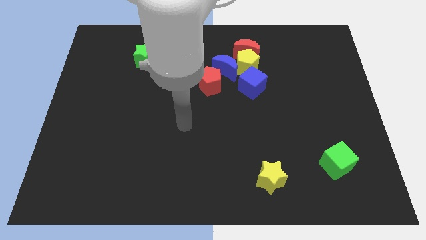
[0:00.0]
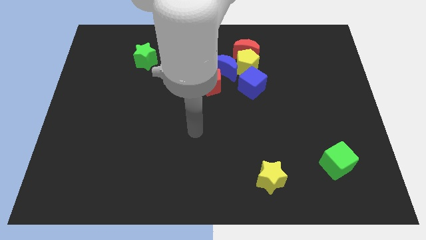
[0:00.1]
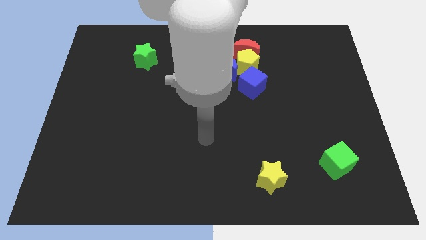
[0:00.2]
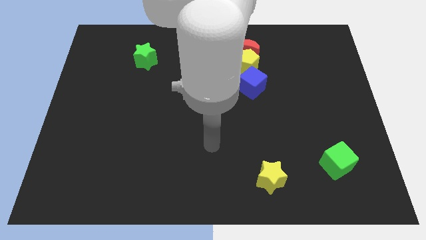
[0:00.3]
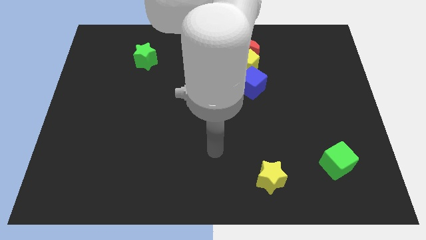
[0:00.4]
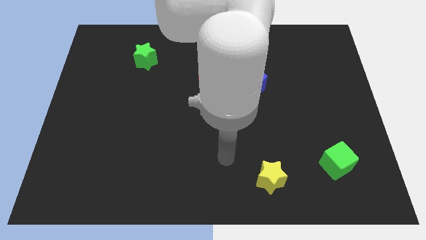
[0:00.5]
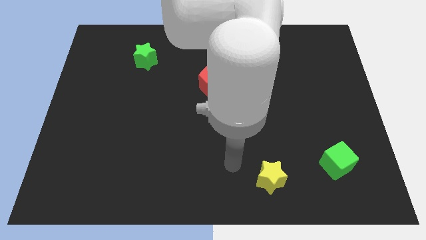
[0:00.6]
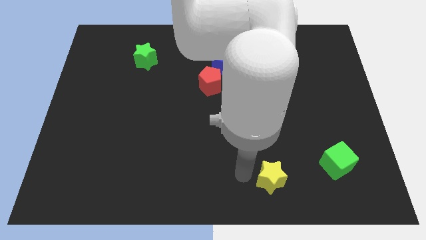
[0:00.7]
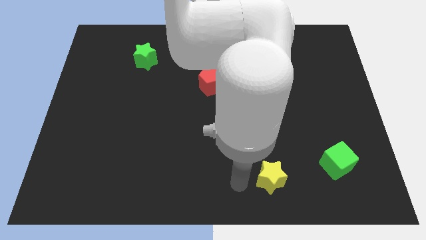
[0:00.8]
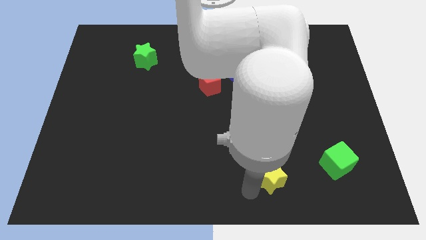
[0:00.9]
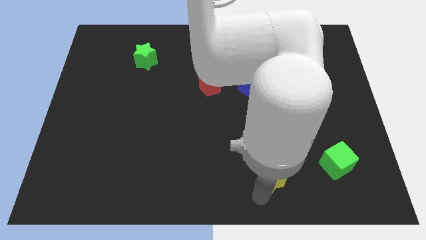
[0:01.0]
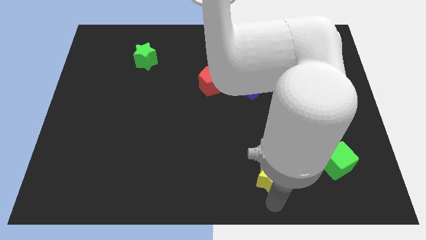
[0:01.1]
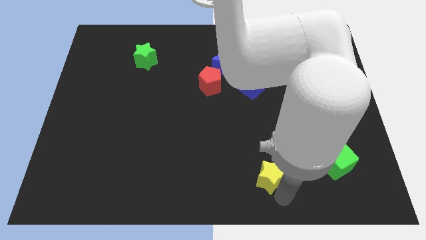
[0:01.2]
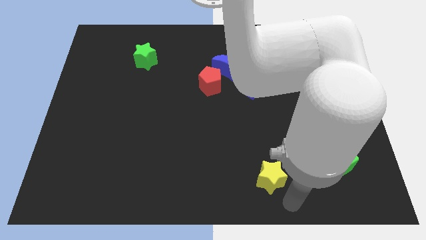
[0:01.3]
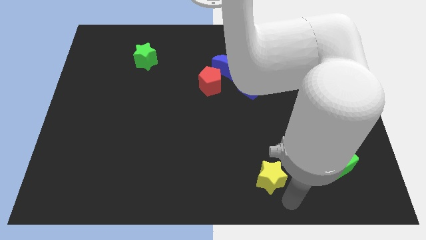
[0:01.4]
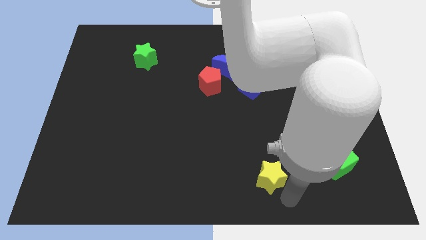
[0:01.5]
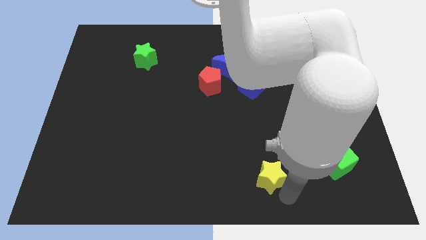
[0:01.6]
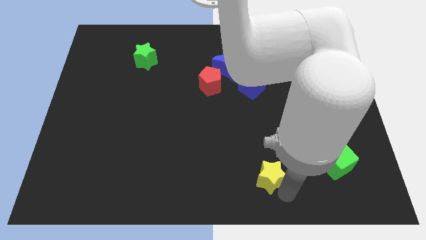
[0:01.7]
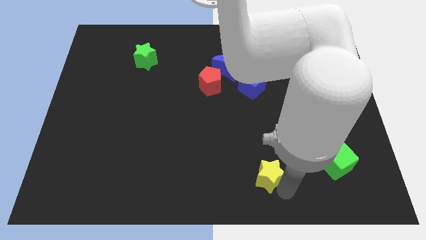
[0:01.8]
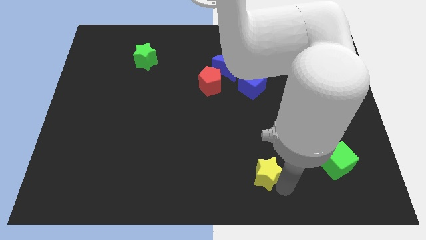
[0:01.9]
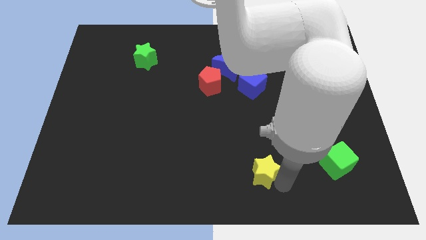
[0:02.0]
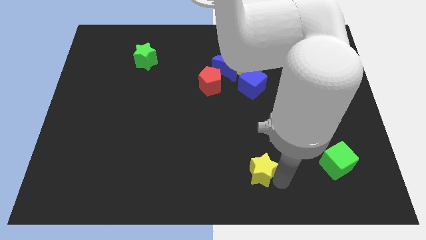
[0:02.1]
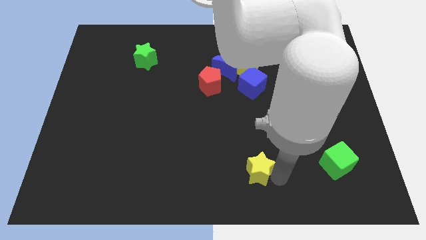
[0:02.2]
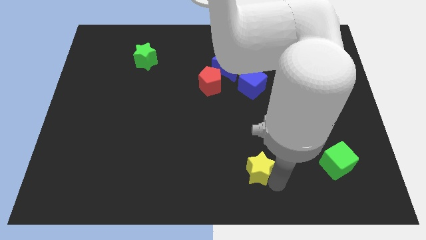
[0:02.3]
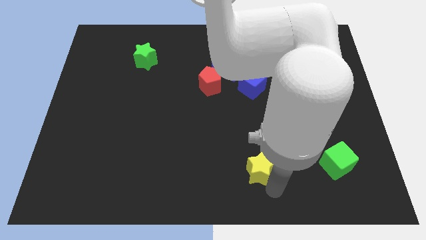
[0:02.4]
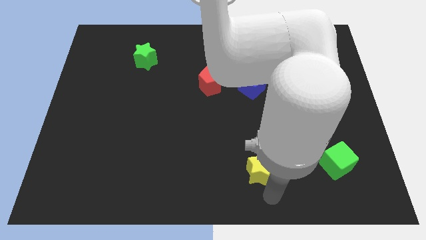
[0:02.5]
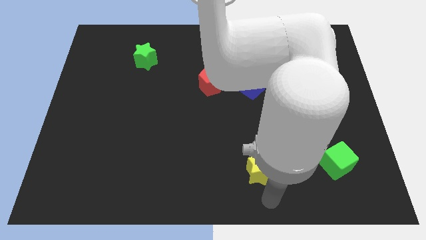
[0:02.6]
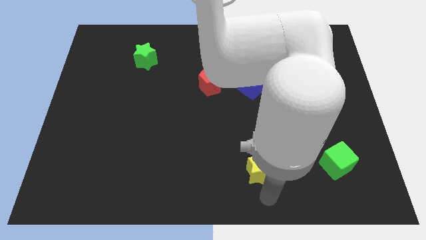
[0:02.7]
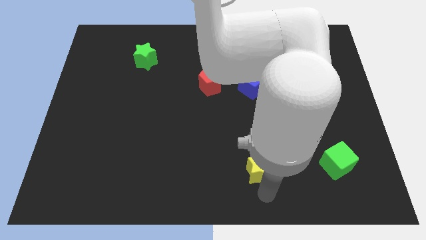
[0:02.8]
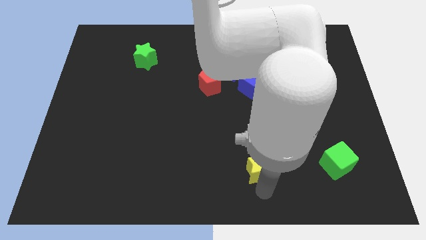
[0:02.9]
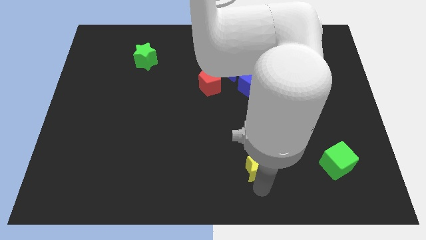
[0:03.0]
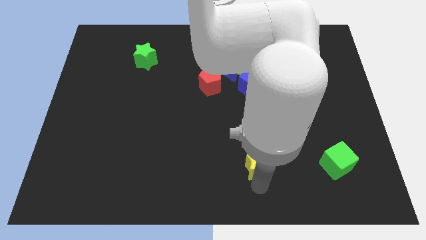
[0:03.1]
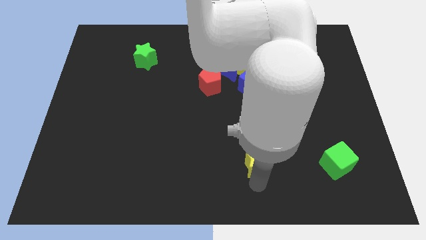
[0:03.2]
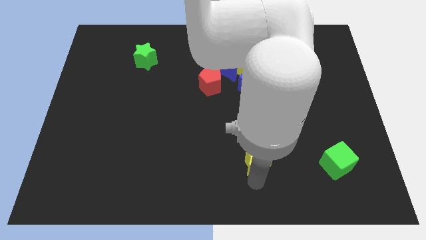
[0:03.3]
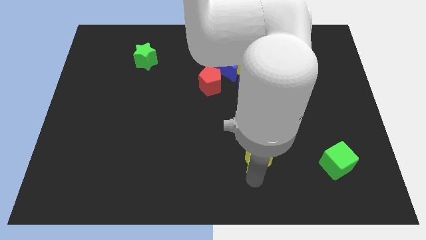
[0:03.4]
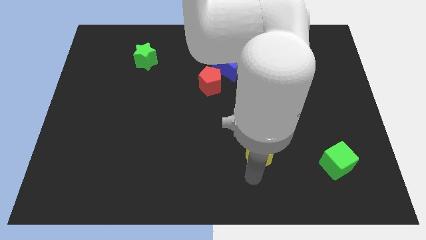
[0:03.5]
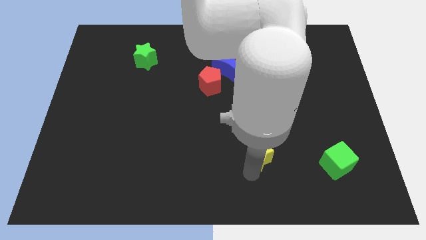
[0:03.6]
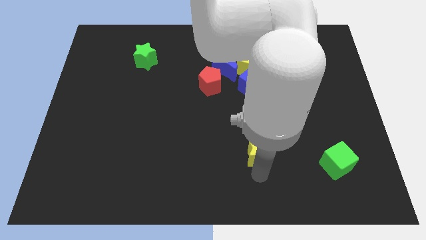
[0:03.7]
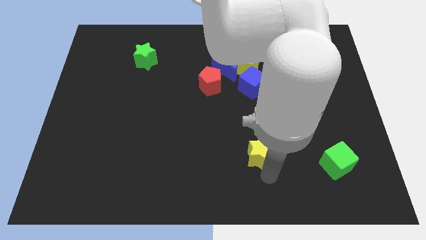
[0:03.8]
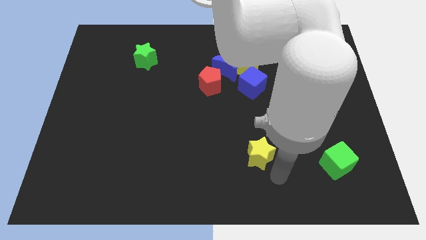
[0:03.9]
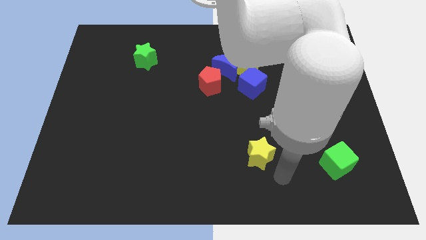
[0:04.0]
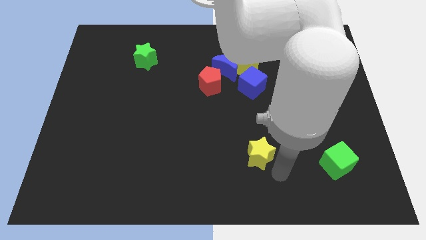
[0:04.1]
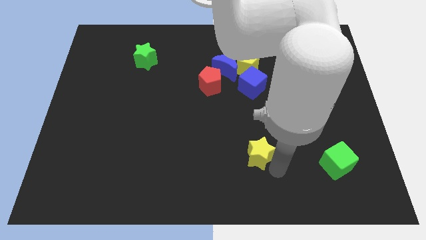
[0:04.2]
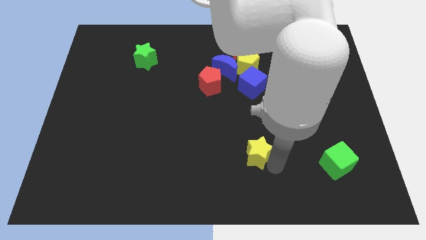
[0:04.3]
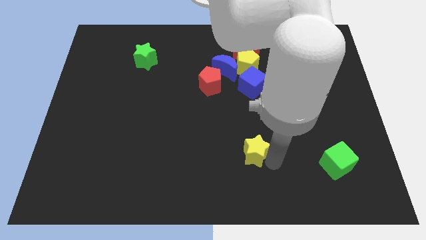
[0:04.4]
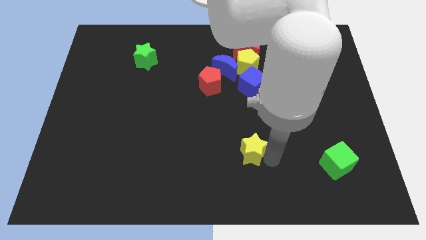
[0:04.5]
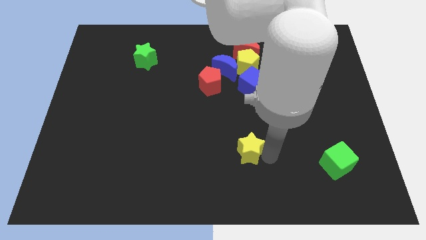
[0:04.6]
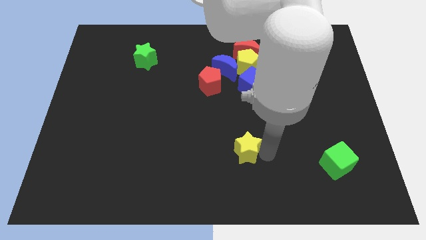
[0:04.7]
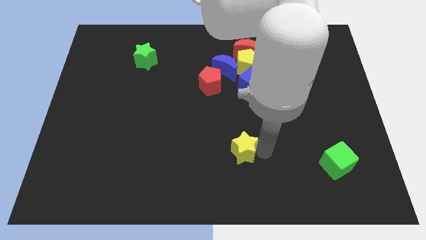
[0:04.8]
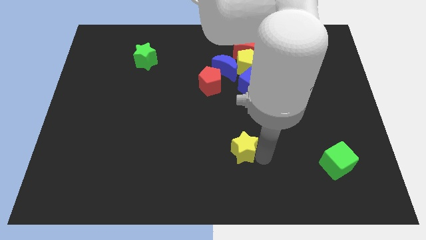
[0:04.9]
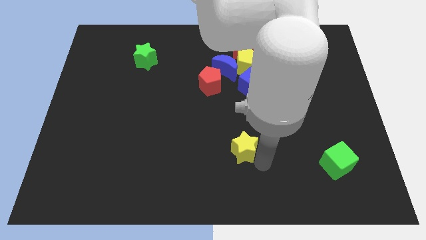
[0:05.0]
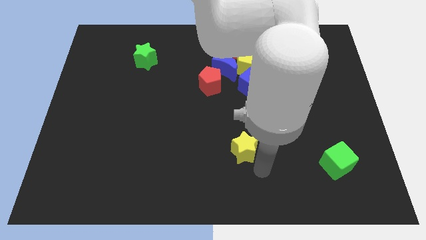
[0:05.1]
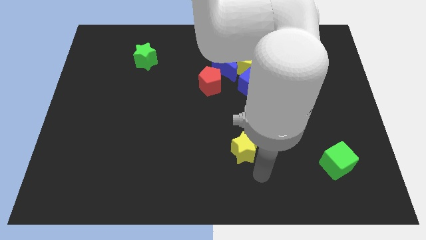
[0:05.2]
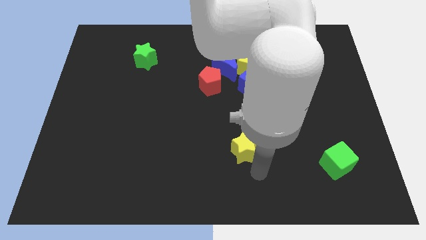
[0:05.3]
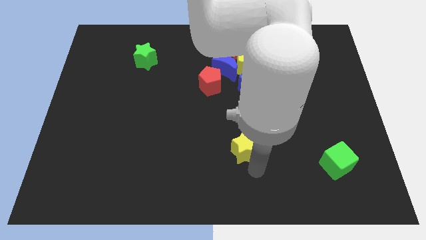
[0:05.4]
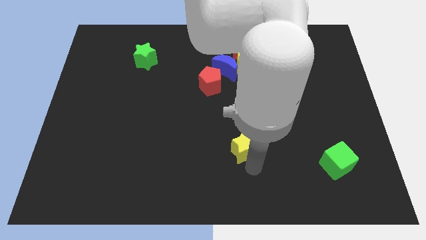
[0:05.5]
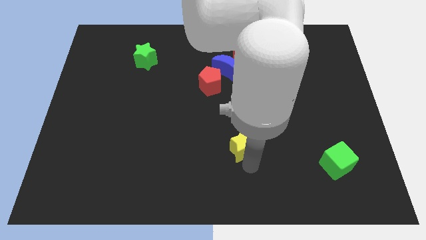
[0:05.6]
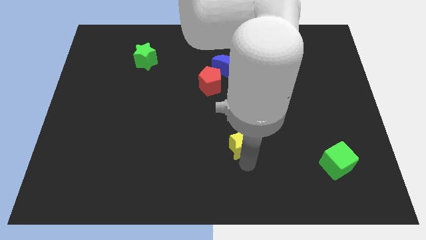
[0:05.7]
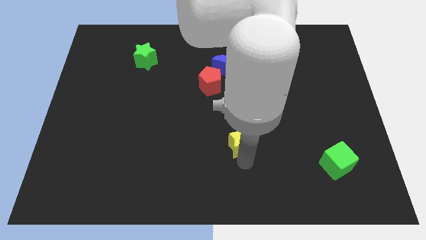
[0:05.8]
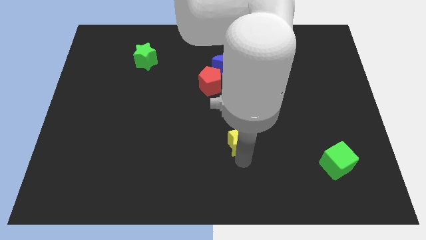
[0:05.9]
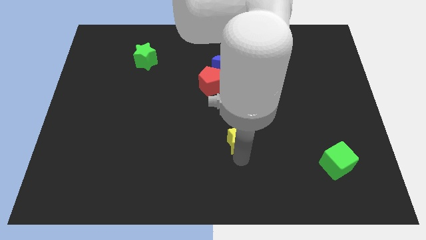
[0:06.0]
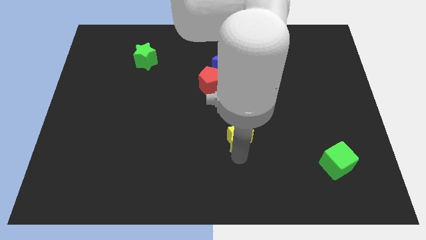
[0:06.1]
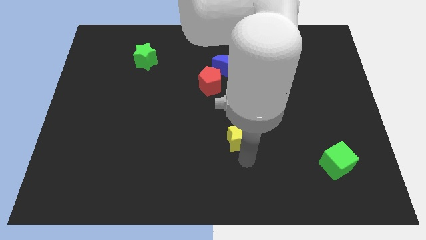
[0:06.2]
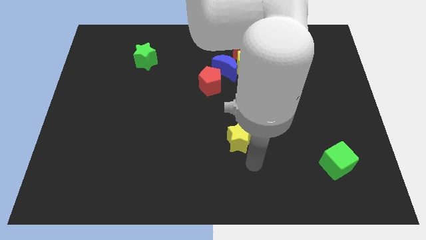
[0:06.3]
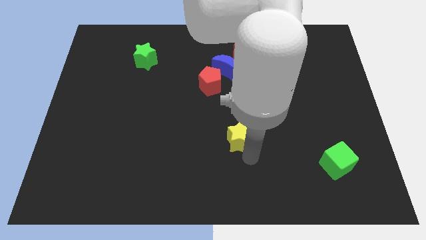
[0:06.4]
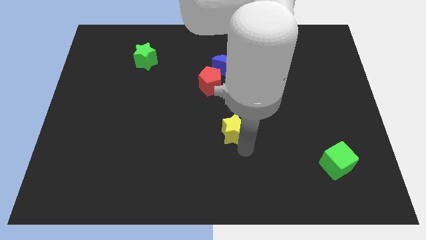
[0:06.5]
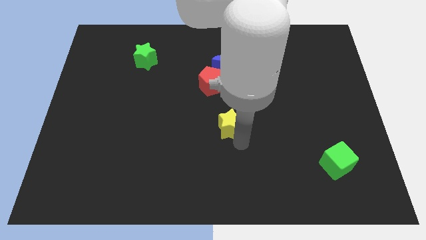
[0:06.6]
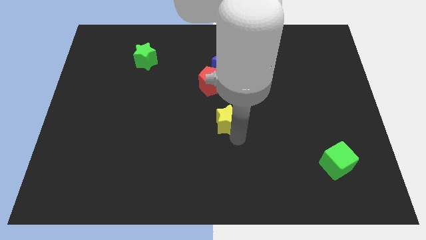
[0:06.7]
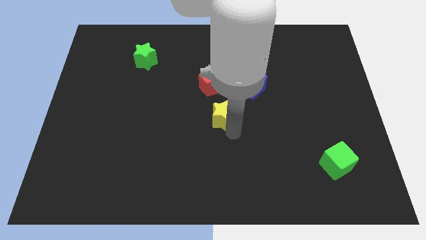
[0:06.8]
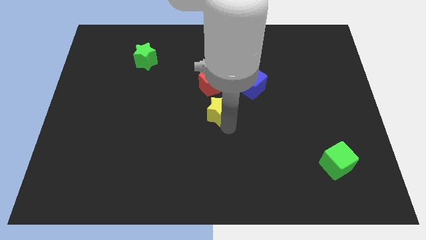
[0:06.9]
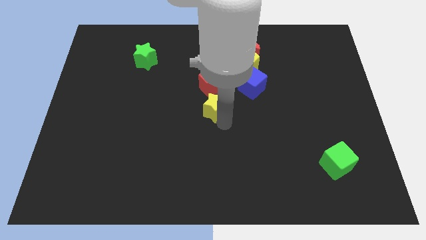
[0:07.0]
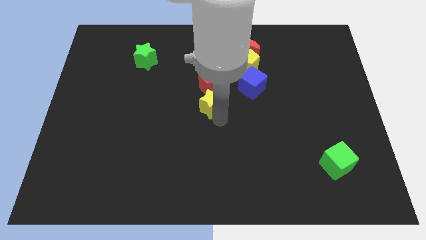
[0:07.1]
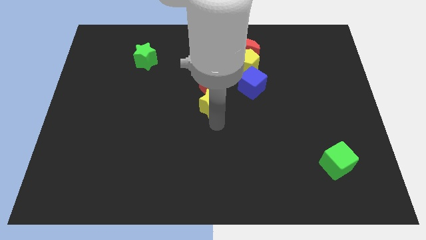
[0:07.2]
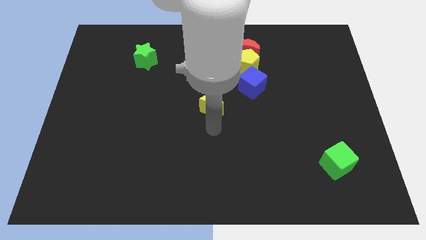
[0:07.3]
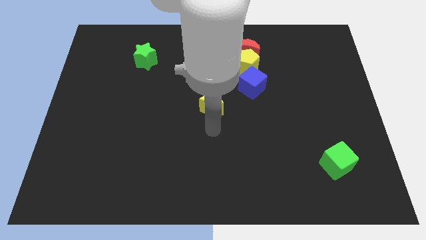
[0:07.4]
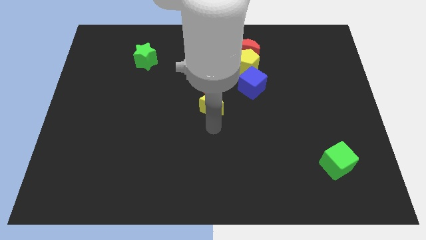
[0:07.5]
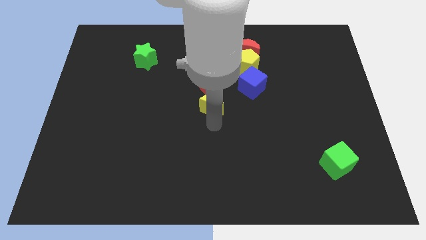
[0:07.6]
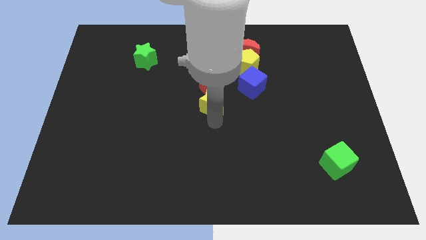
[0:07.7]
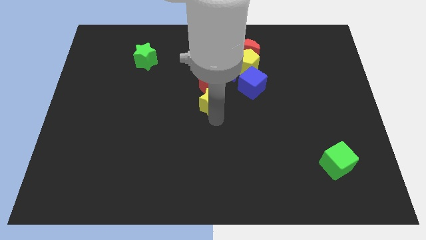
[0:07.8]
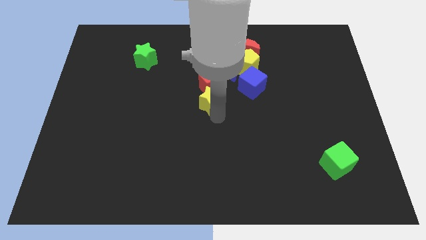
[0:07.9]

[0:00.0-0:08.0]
move the yellow star towards the red pentagon
